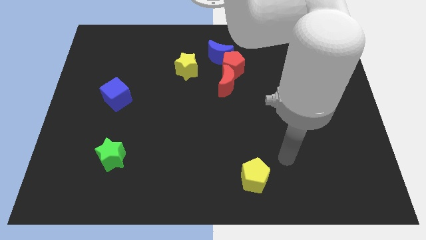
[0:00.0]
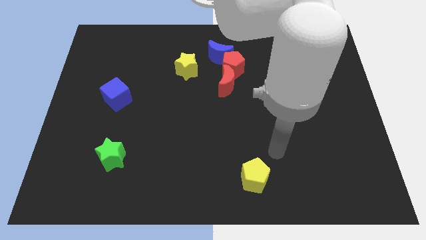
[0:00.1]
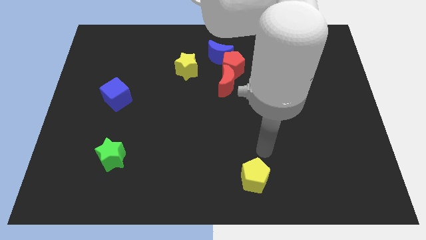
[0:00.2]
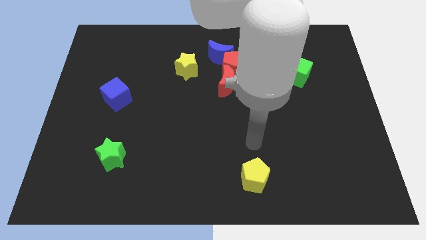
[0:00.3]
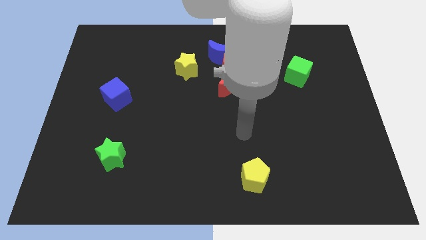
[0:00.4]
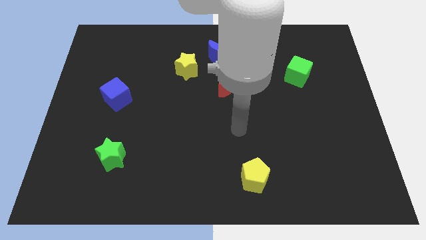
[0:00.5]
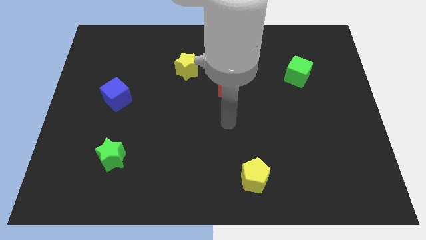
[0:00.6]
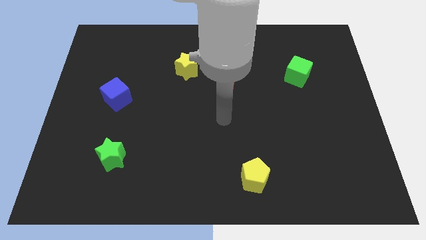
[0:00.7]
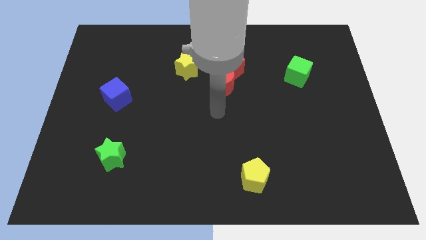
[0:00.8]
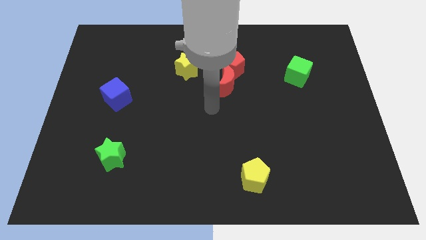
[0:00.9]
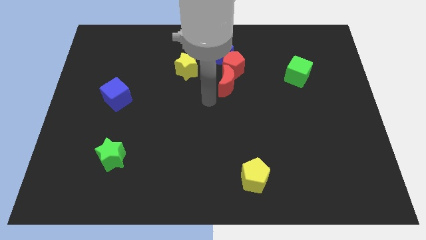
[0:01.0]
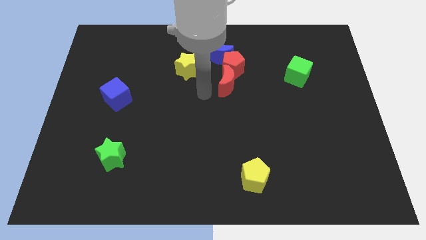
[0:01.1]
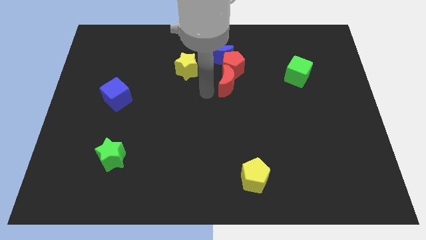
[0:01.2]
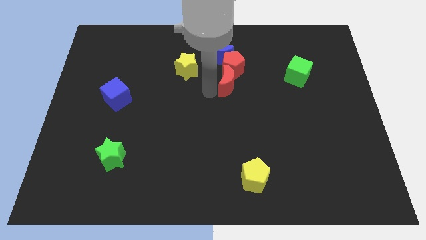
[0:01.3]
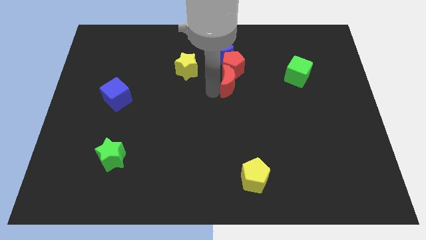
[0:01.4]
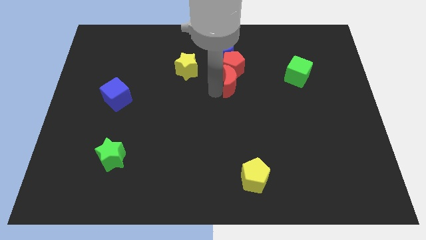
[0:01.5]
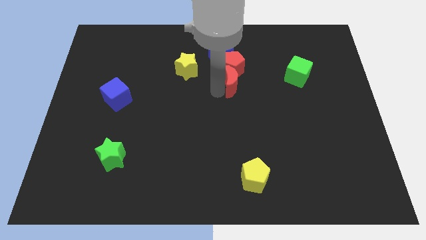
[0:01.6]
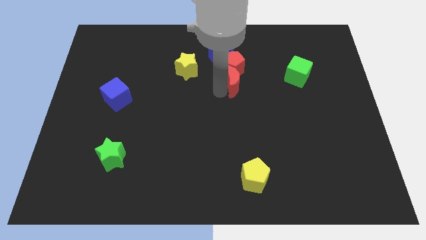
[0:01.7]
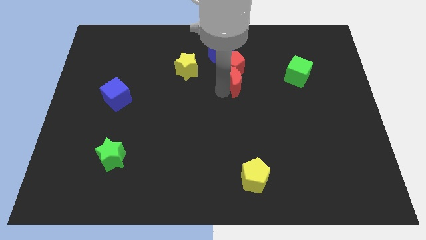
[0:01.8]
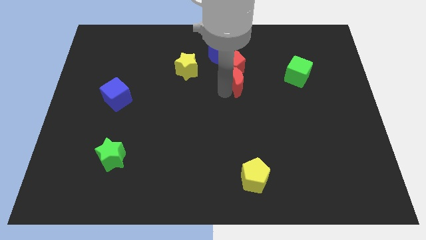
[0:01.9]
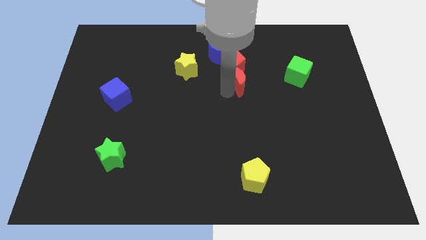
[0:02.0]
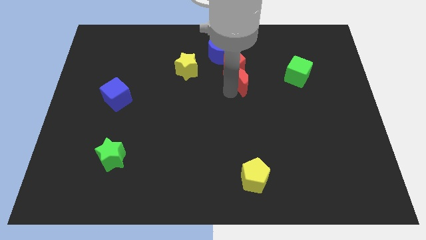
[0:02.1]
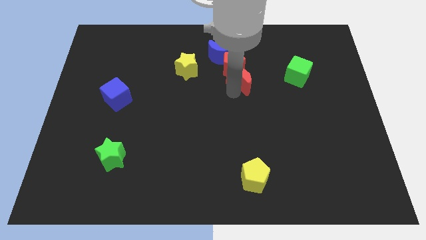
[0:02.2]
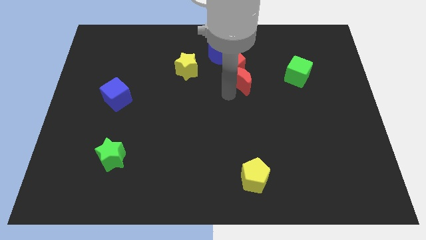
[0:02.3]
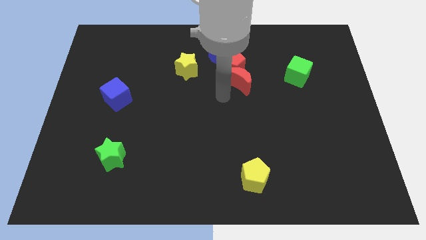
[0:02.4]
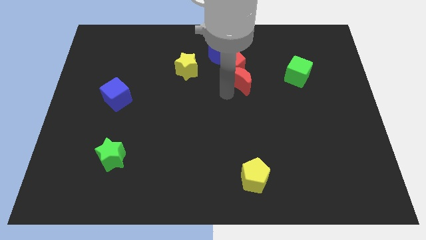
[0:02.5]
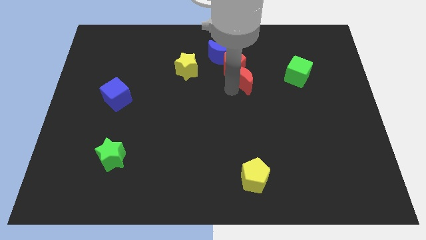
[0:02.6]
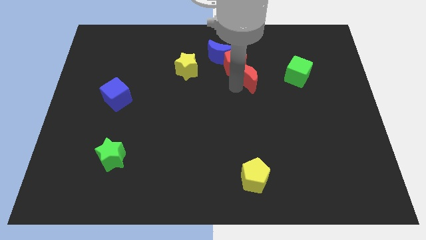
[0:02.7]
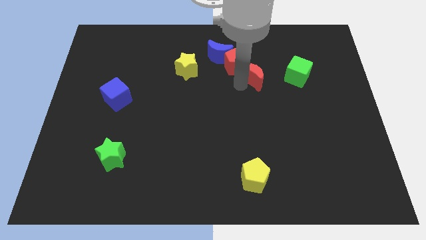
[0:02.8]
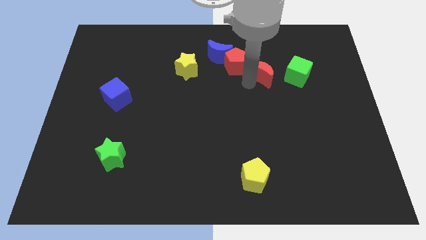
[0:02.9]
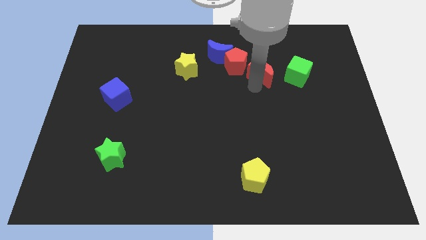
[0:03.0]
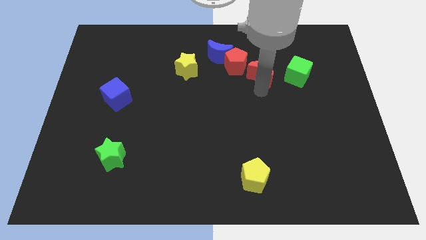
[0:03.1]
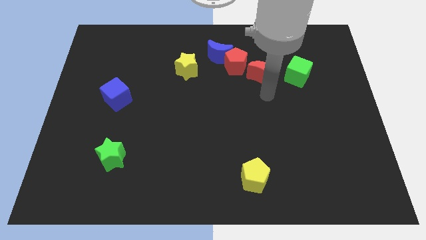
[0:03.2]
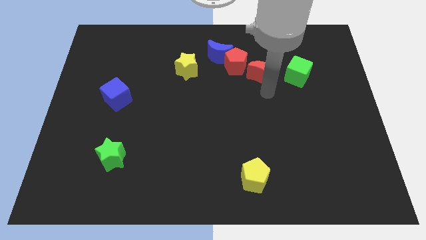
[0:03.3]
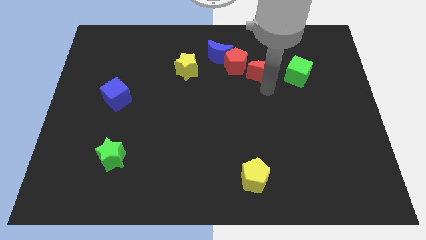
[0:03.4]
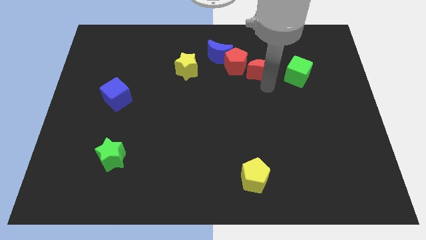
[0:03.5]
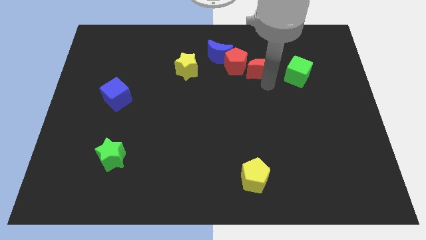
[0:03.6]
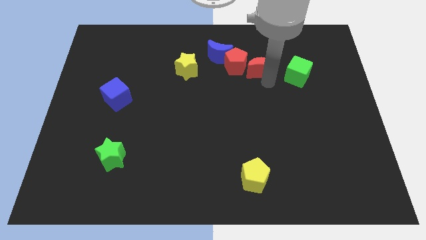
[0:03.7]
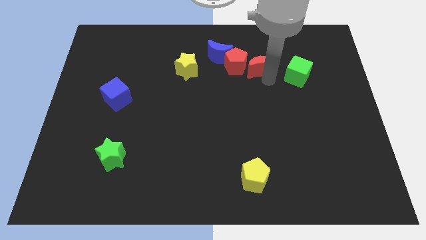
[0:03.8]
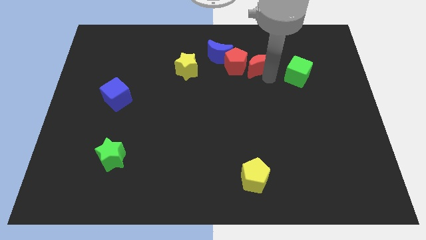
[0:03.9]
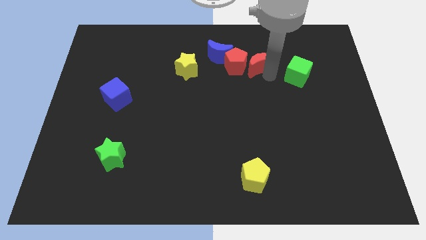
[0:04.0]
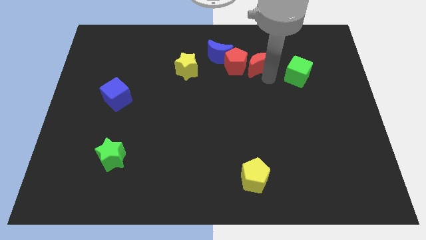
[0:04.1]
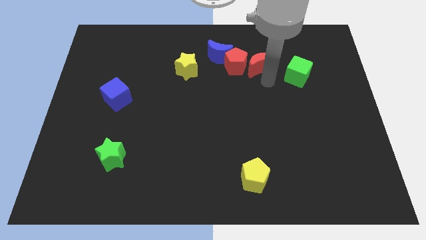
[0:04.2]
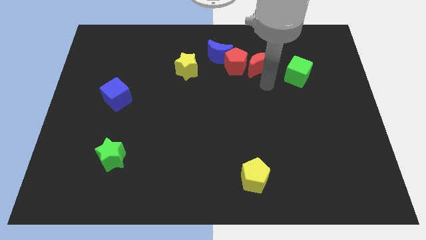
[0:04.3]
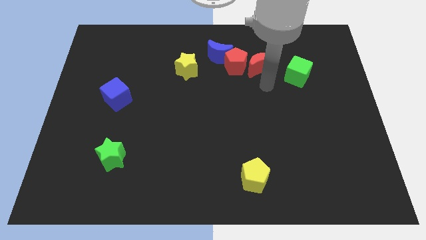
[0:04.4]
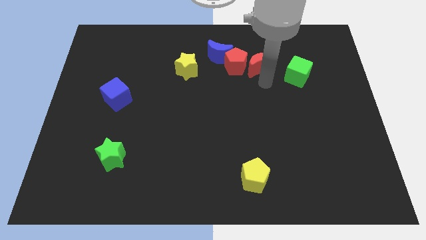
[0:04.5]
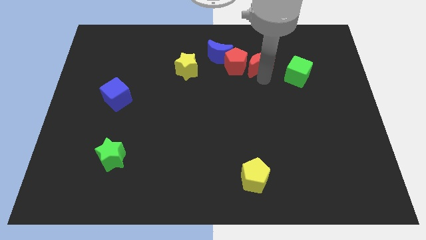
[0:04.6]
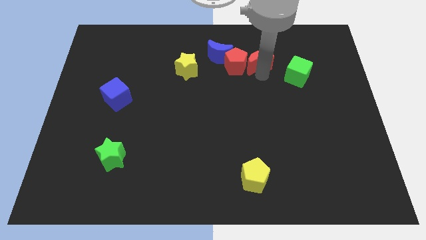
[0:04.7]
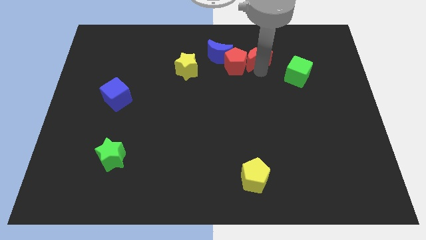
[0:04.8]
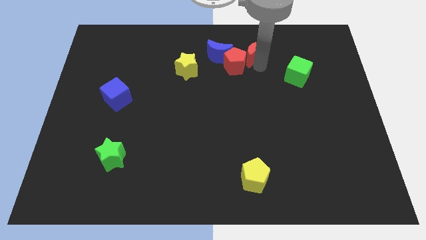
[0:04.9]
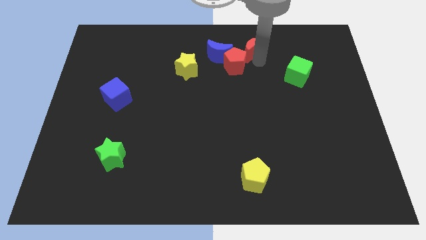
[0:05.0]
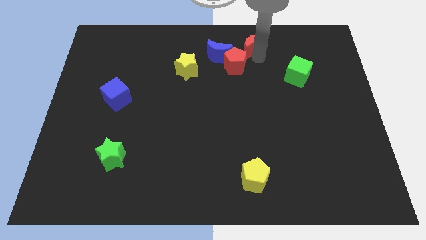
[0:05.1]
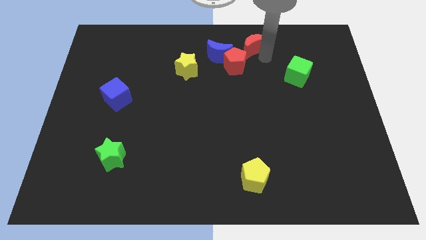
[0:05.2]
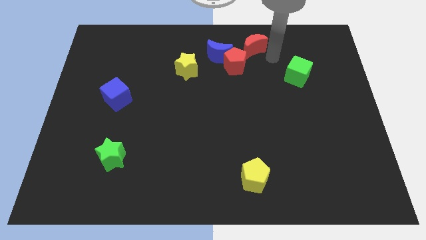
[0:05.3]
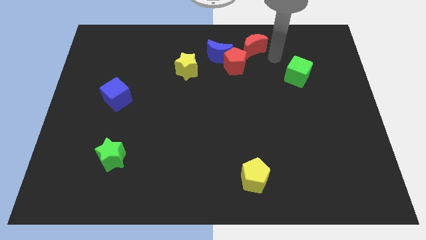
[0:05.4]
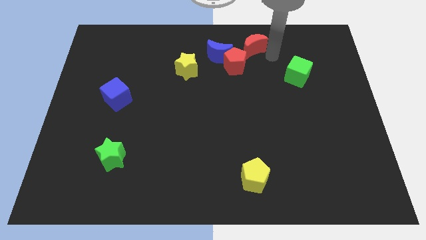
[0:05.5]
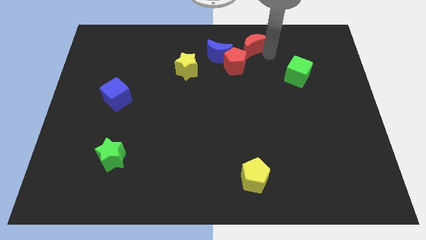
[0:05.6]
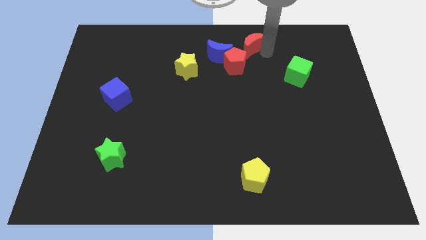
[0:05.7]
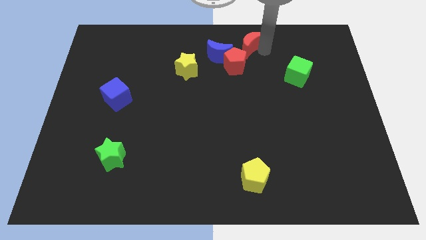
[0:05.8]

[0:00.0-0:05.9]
push the red moon to the top side
